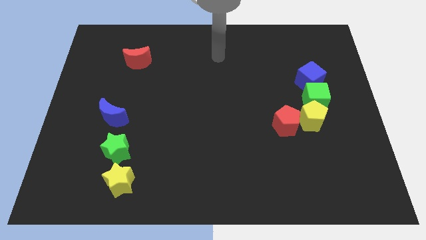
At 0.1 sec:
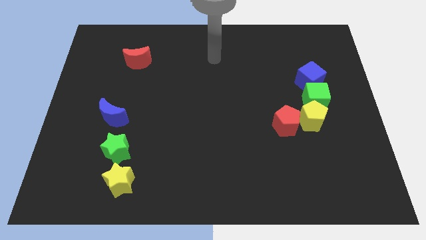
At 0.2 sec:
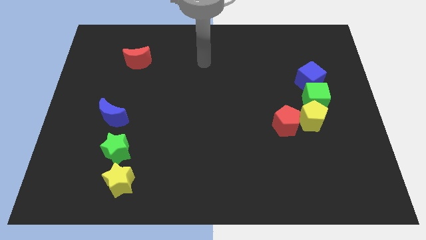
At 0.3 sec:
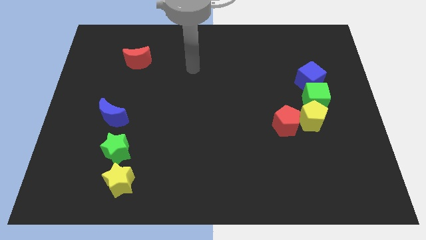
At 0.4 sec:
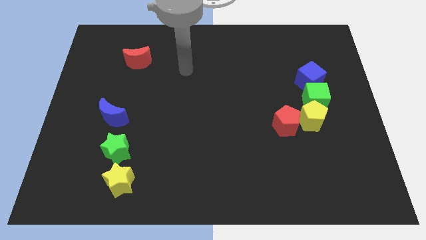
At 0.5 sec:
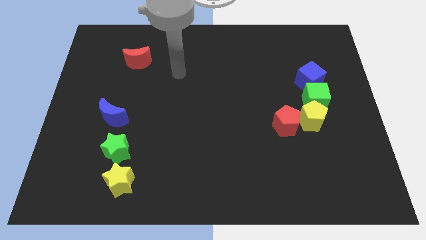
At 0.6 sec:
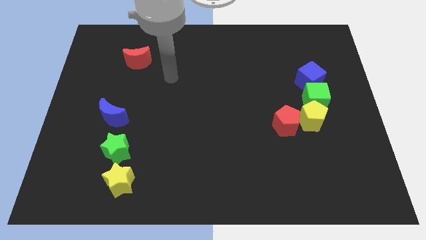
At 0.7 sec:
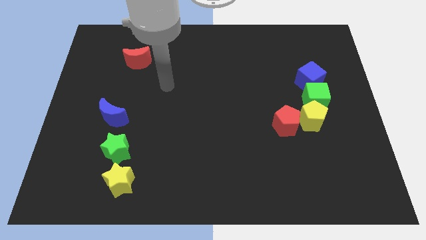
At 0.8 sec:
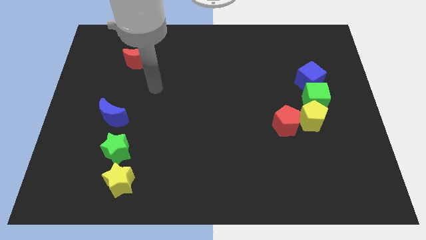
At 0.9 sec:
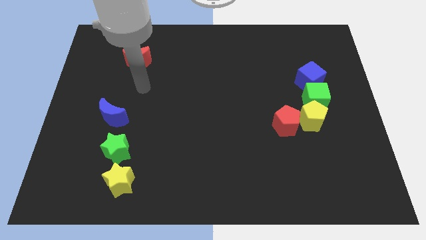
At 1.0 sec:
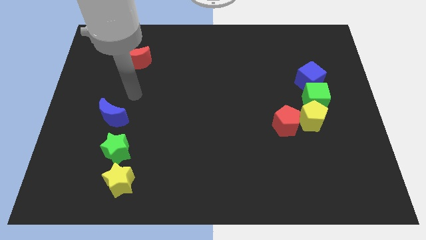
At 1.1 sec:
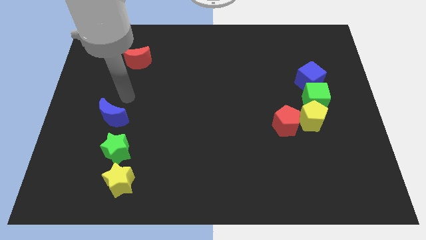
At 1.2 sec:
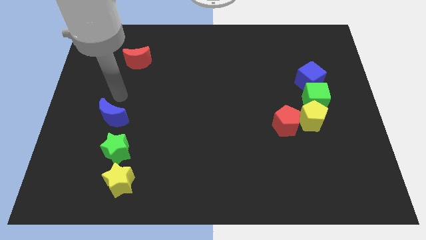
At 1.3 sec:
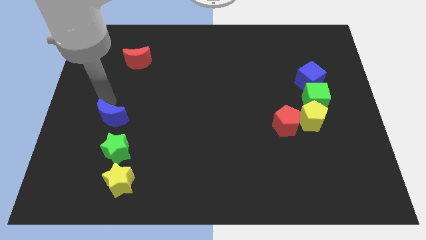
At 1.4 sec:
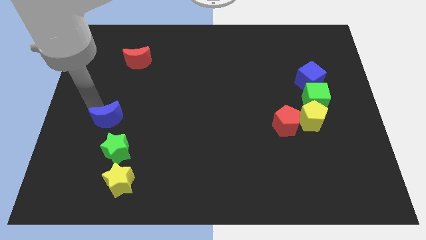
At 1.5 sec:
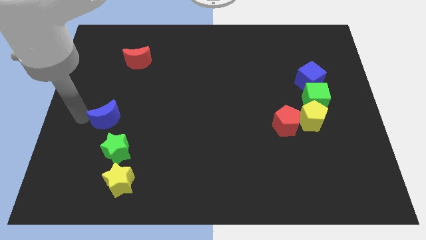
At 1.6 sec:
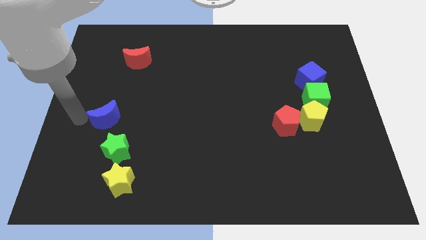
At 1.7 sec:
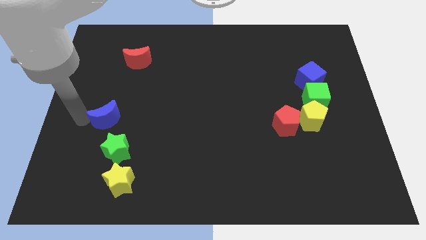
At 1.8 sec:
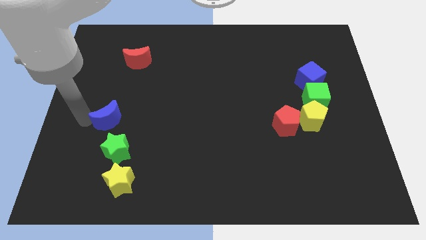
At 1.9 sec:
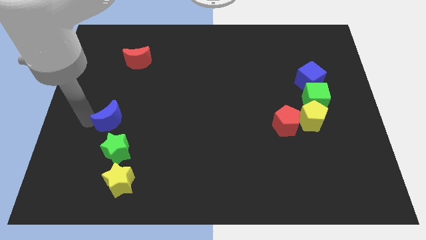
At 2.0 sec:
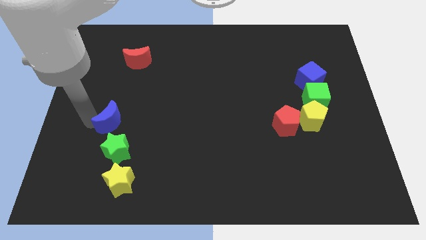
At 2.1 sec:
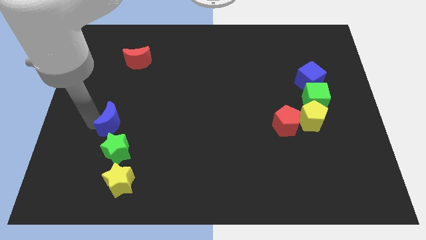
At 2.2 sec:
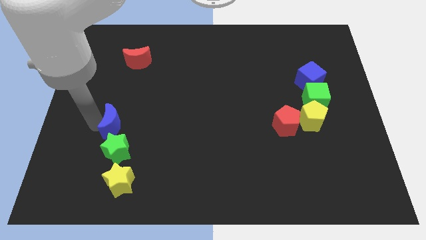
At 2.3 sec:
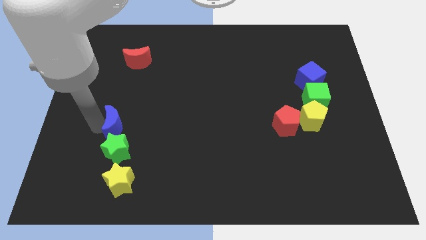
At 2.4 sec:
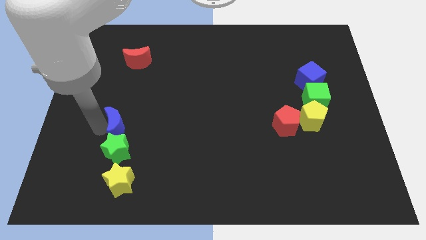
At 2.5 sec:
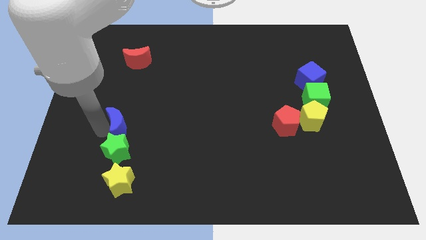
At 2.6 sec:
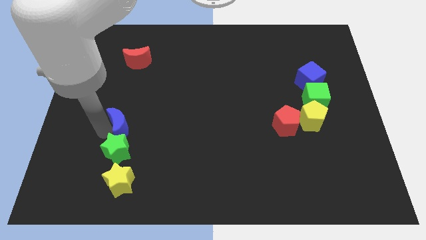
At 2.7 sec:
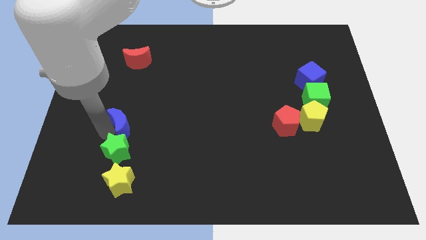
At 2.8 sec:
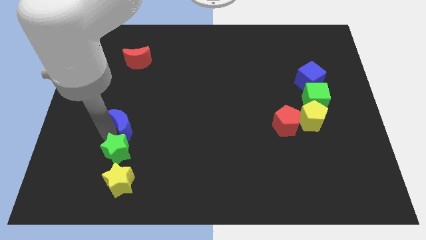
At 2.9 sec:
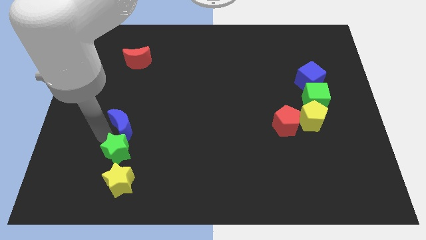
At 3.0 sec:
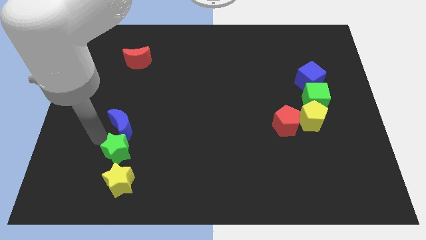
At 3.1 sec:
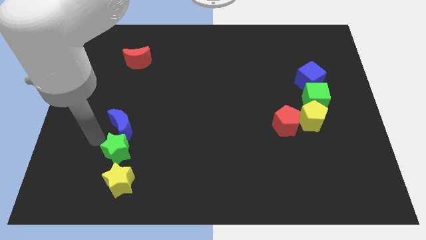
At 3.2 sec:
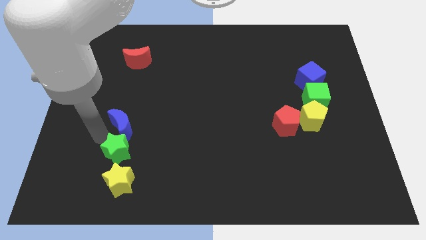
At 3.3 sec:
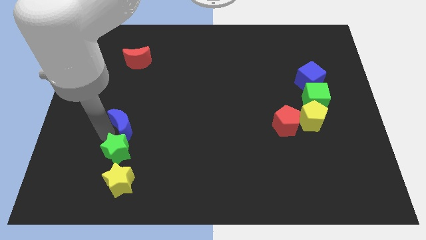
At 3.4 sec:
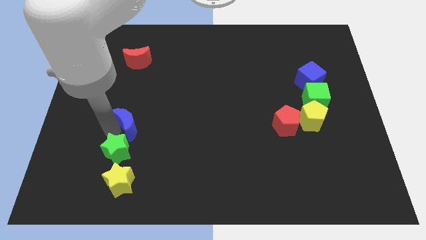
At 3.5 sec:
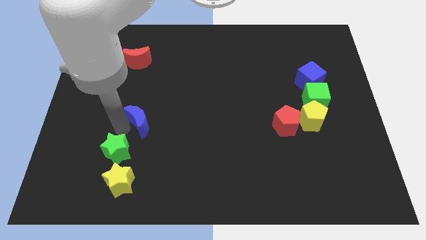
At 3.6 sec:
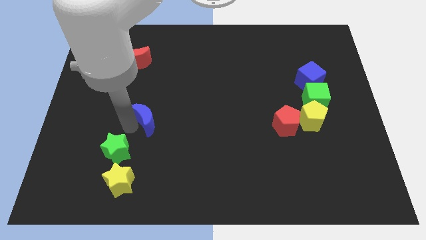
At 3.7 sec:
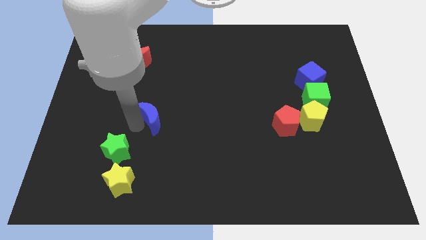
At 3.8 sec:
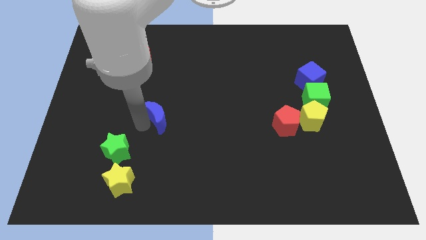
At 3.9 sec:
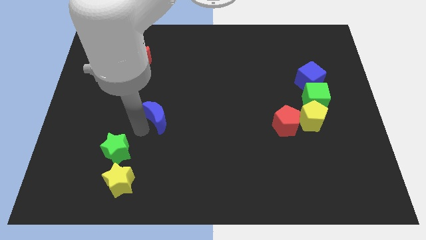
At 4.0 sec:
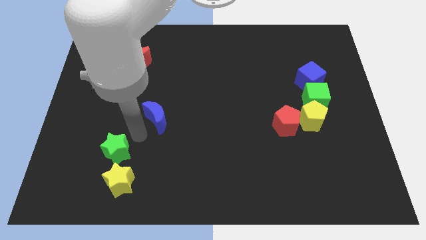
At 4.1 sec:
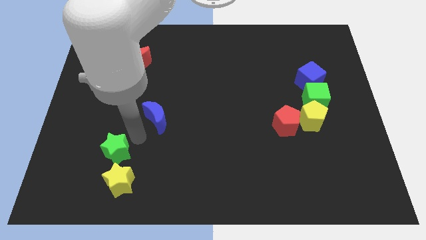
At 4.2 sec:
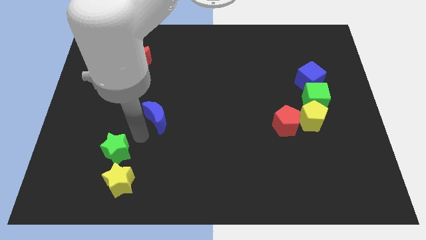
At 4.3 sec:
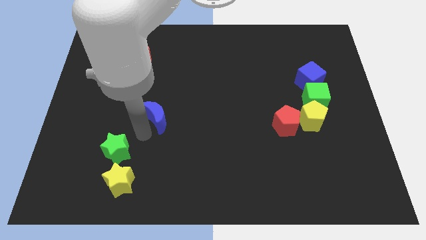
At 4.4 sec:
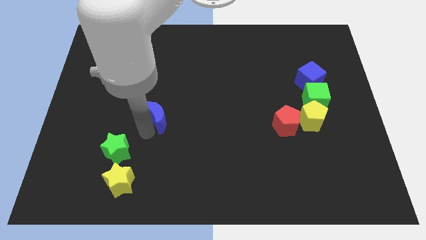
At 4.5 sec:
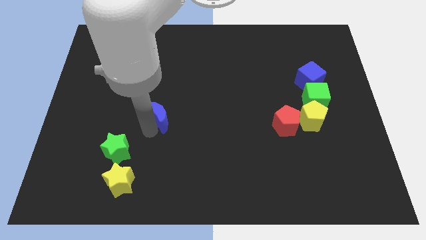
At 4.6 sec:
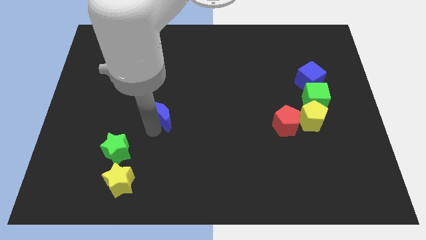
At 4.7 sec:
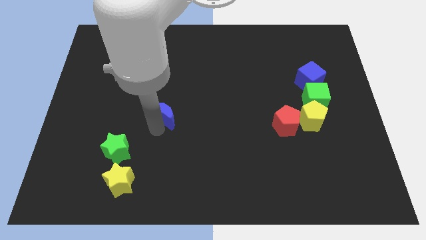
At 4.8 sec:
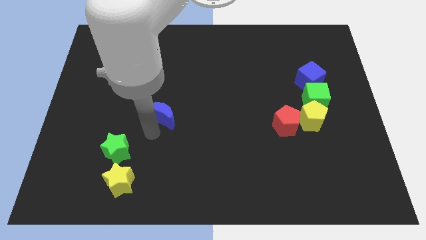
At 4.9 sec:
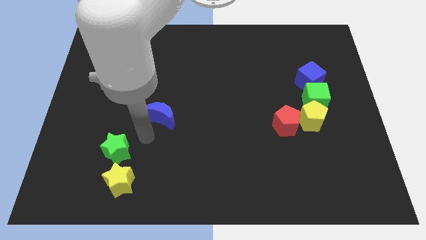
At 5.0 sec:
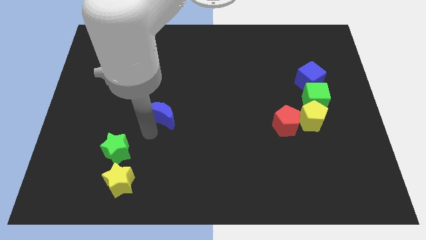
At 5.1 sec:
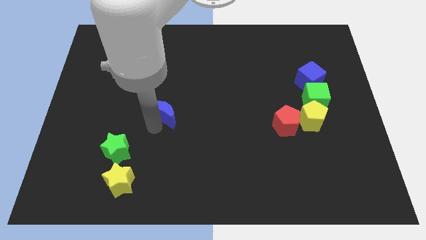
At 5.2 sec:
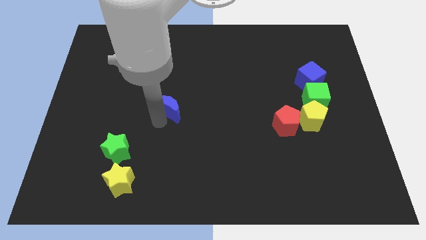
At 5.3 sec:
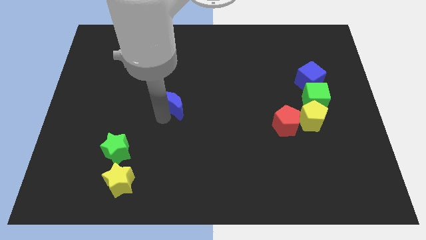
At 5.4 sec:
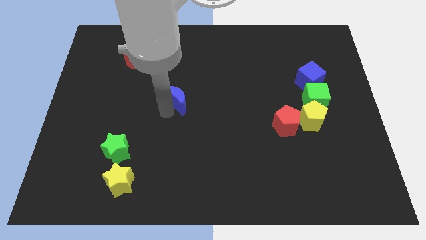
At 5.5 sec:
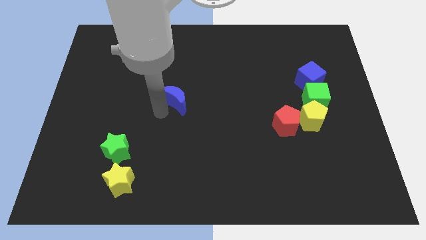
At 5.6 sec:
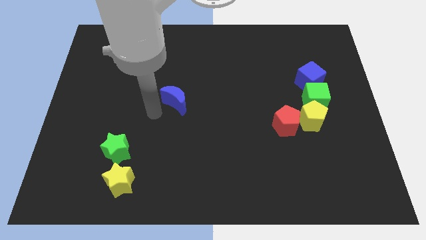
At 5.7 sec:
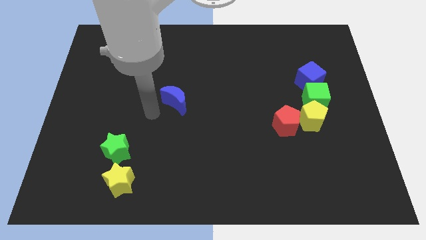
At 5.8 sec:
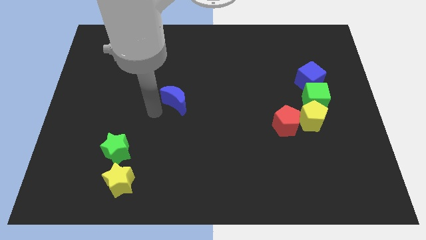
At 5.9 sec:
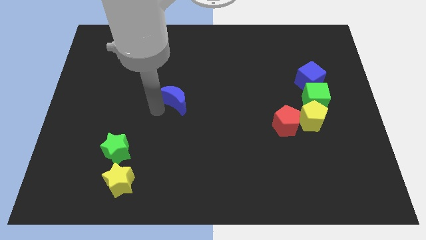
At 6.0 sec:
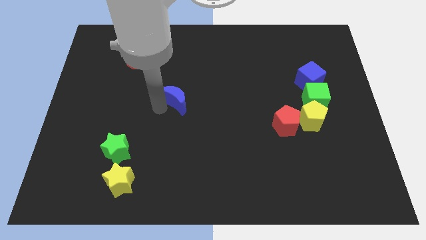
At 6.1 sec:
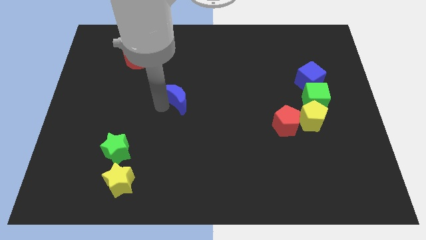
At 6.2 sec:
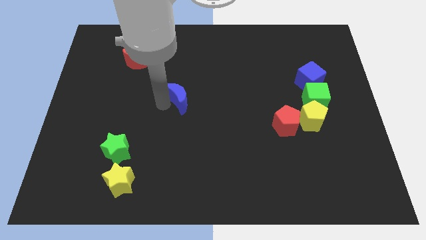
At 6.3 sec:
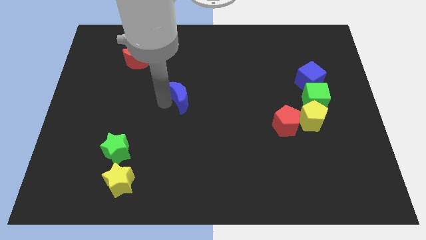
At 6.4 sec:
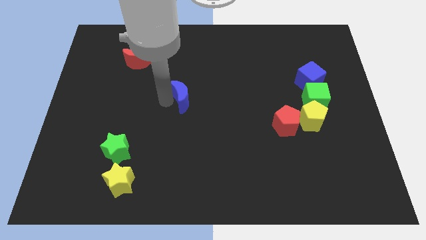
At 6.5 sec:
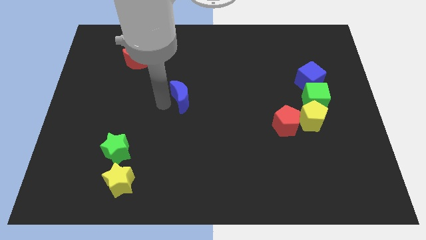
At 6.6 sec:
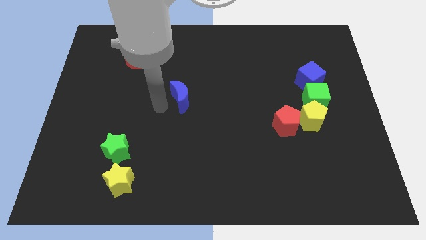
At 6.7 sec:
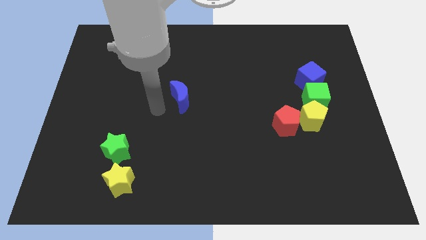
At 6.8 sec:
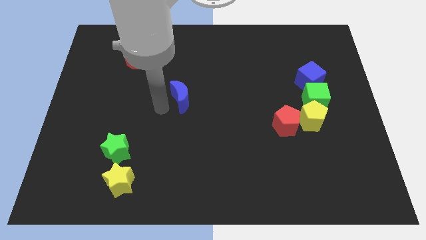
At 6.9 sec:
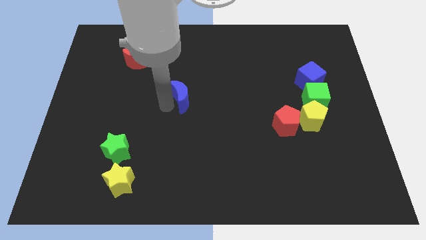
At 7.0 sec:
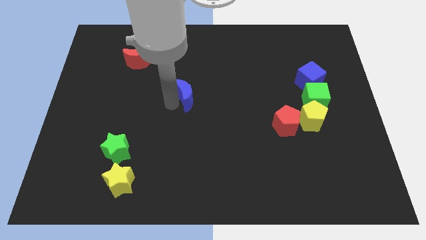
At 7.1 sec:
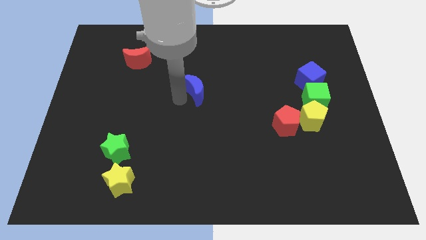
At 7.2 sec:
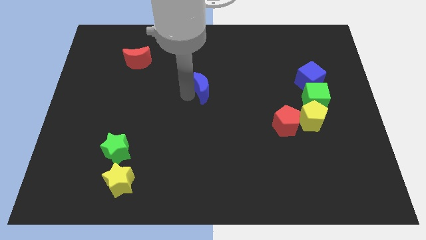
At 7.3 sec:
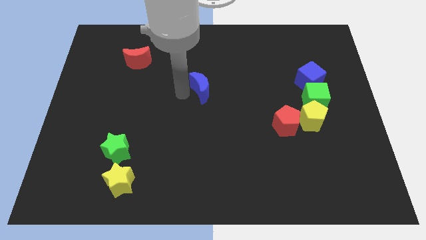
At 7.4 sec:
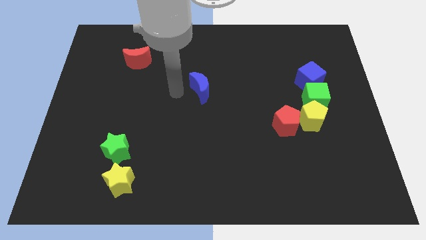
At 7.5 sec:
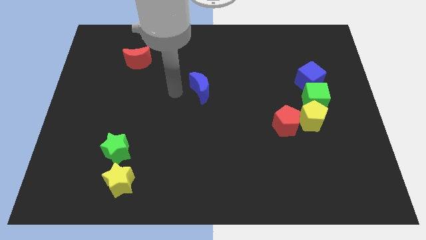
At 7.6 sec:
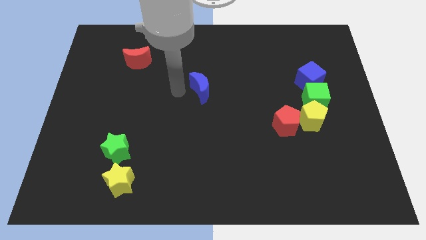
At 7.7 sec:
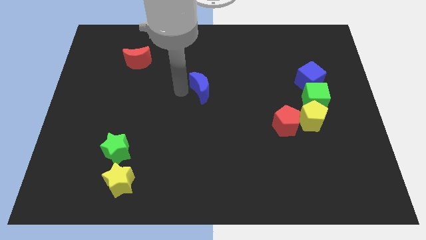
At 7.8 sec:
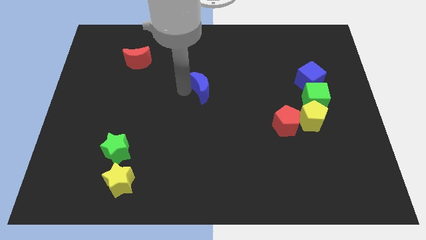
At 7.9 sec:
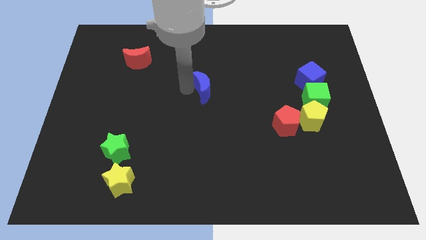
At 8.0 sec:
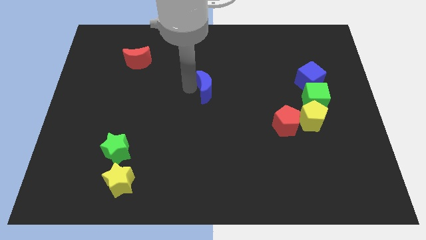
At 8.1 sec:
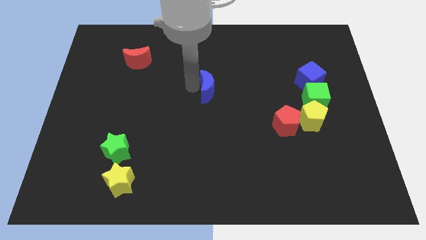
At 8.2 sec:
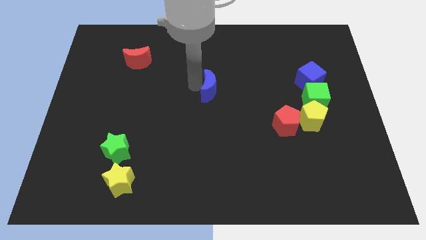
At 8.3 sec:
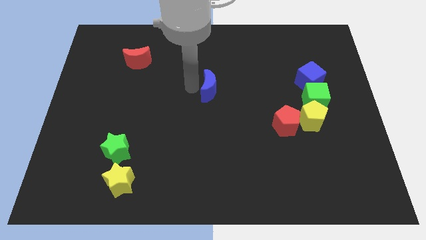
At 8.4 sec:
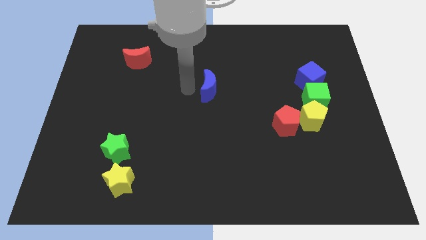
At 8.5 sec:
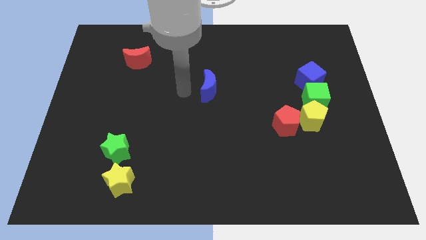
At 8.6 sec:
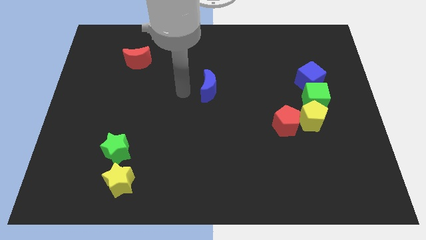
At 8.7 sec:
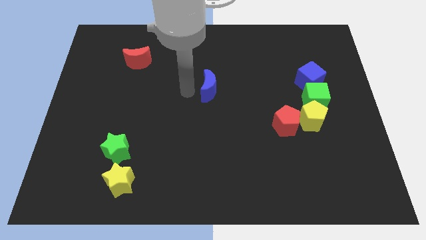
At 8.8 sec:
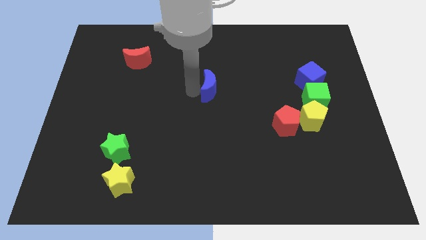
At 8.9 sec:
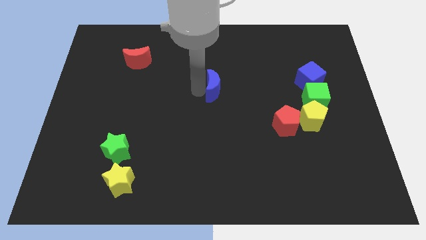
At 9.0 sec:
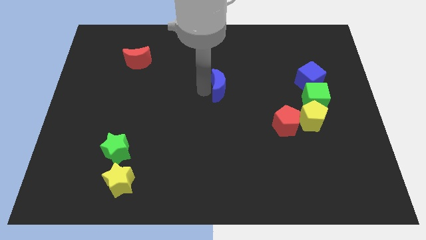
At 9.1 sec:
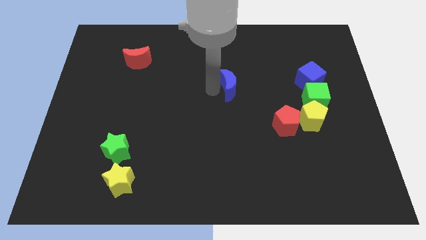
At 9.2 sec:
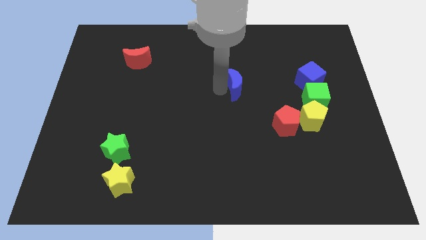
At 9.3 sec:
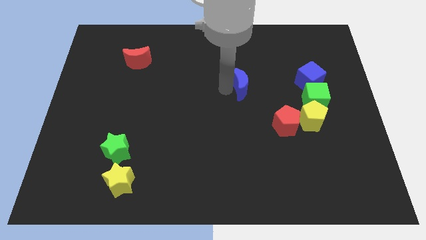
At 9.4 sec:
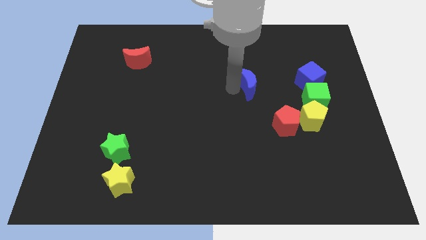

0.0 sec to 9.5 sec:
slide the blue moon to the left of the blue cube
